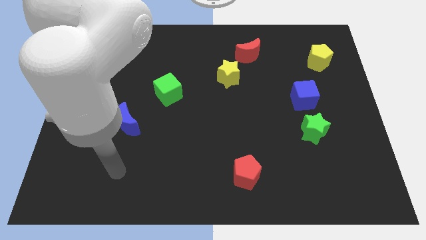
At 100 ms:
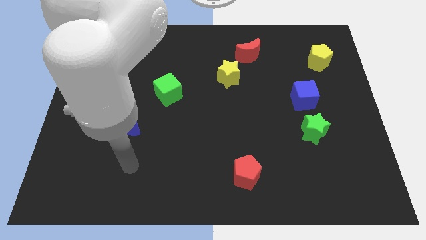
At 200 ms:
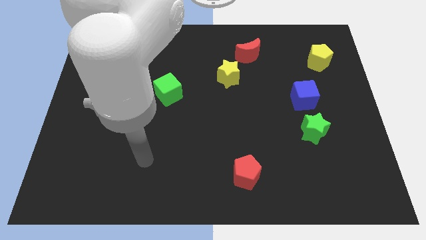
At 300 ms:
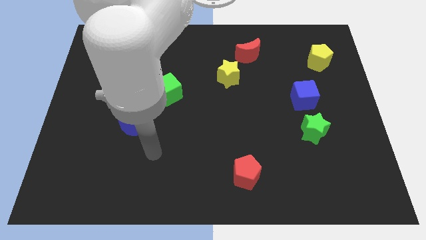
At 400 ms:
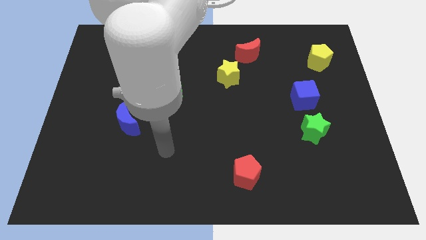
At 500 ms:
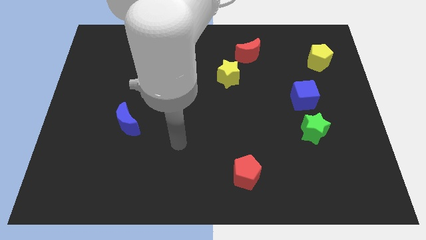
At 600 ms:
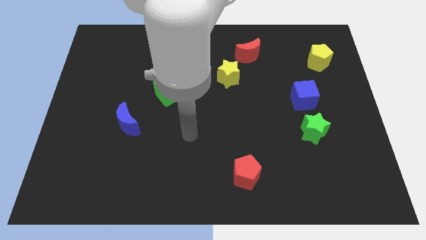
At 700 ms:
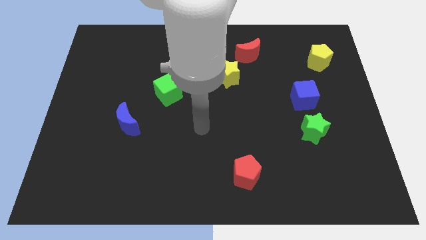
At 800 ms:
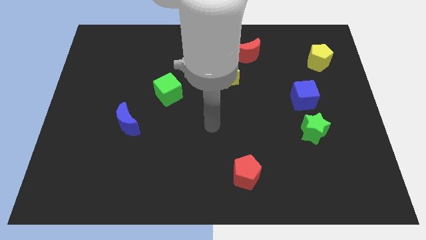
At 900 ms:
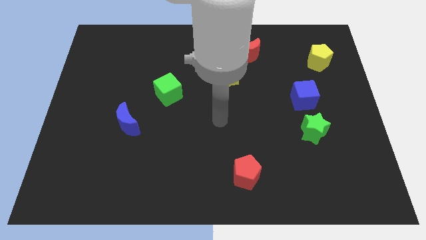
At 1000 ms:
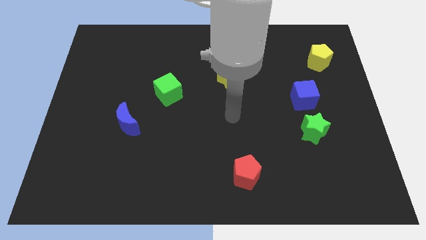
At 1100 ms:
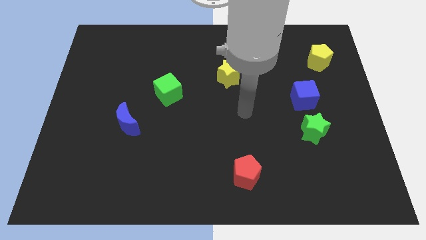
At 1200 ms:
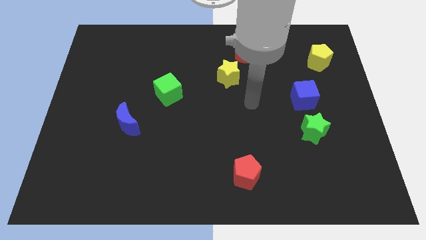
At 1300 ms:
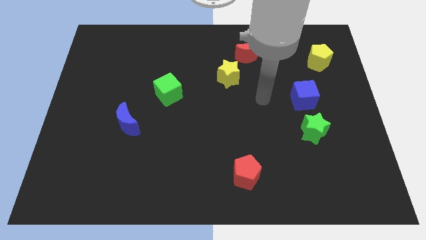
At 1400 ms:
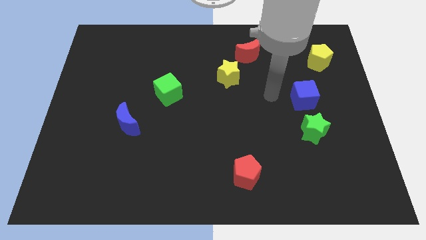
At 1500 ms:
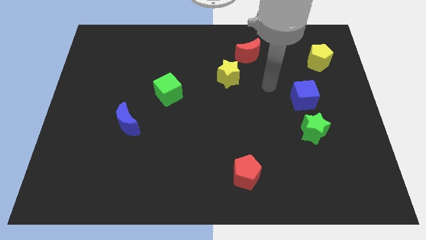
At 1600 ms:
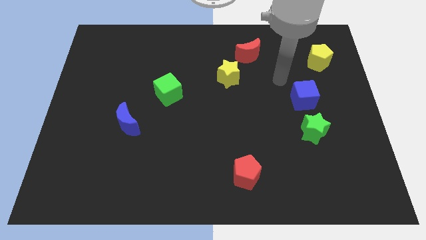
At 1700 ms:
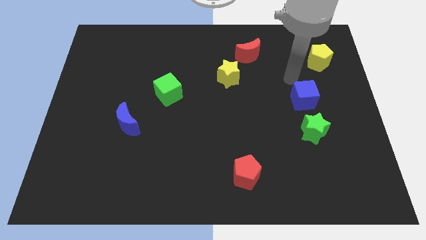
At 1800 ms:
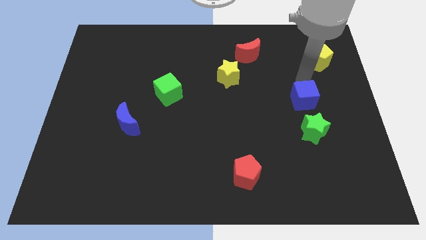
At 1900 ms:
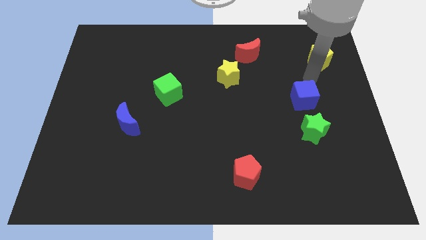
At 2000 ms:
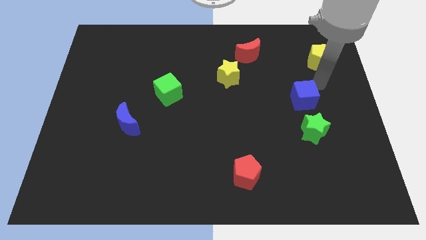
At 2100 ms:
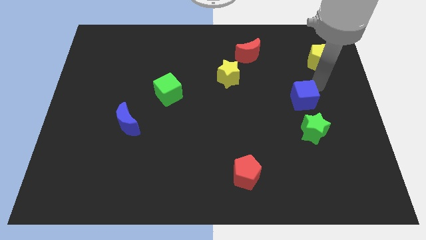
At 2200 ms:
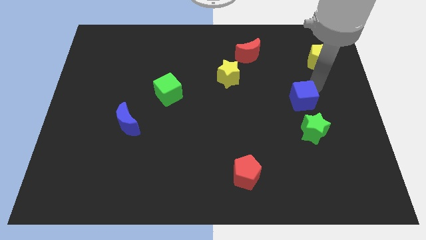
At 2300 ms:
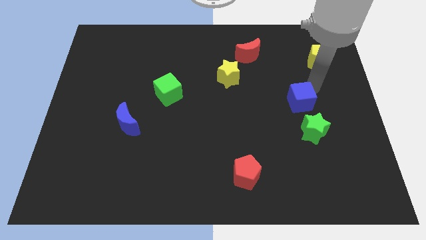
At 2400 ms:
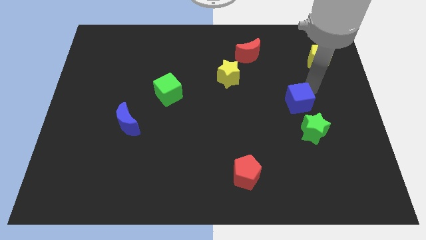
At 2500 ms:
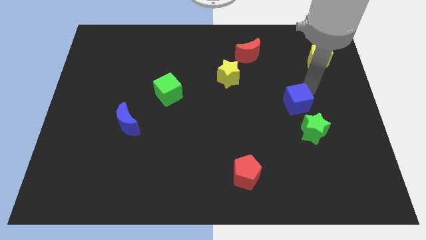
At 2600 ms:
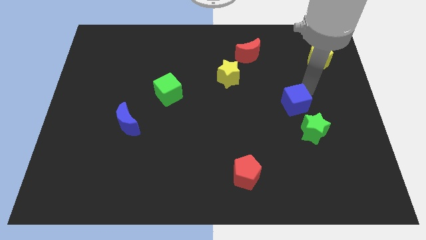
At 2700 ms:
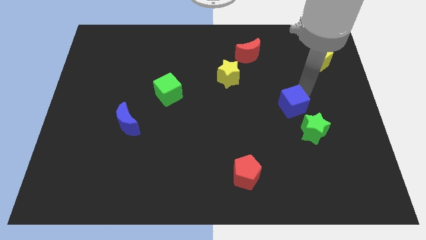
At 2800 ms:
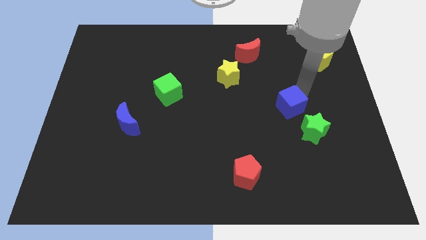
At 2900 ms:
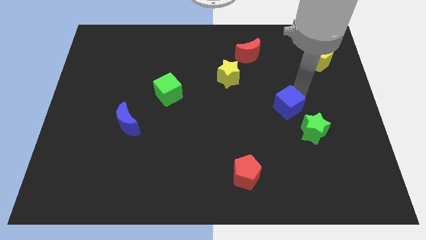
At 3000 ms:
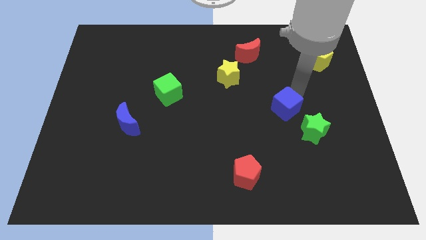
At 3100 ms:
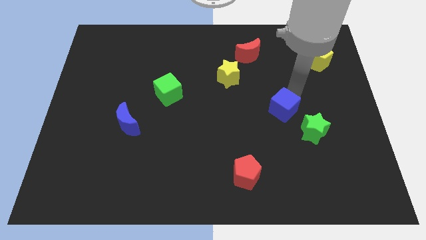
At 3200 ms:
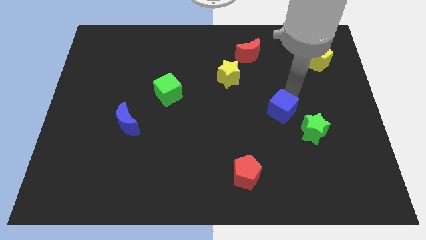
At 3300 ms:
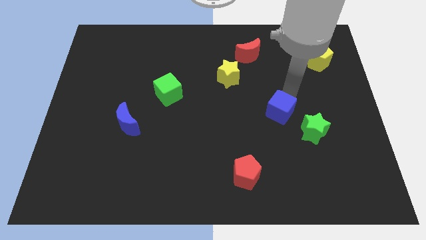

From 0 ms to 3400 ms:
slide the blue cube down and then left slightly

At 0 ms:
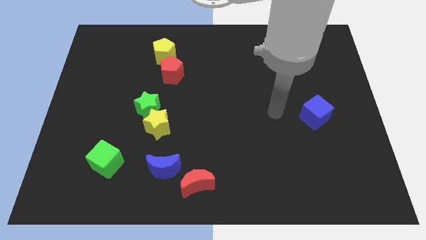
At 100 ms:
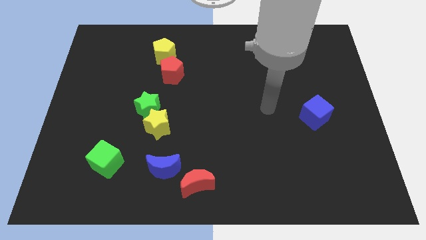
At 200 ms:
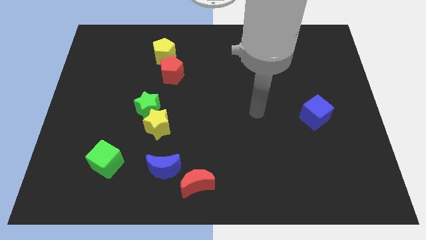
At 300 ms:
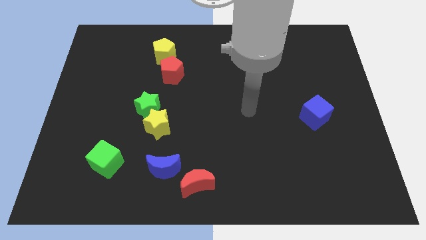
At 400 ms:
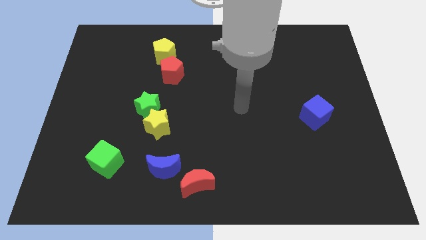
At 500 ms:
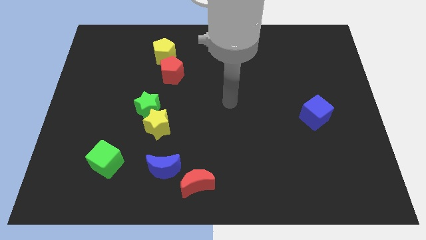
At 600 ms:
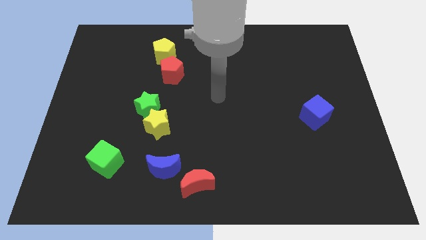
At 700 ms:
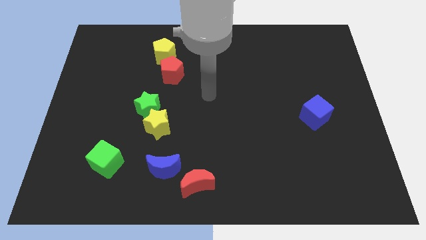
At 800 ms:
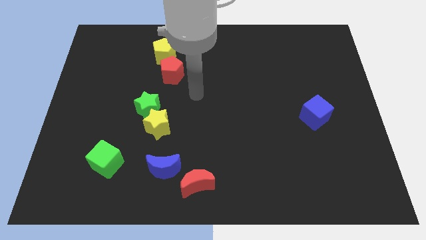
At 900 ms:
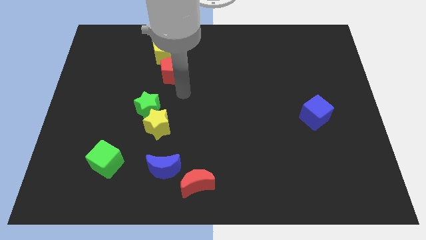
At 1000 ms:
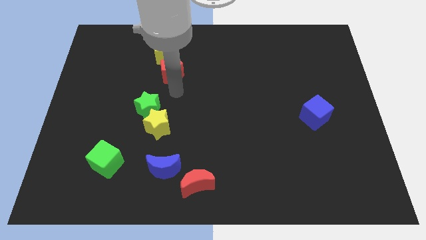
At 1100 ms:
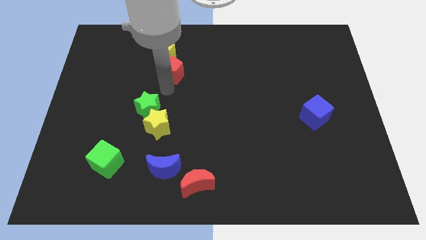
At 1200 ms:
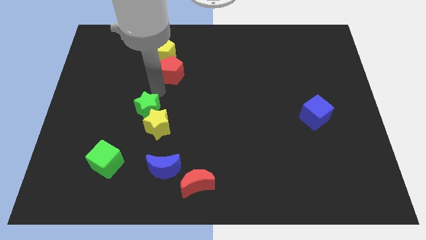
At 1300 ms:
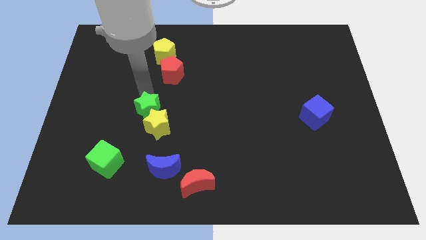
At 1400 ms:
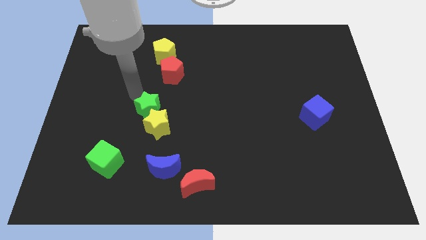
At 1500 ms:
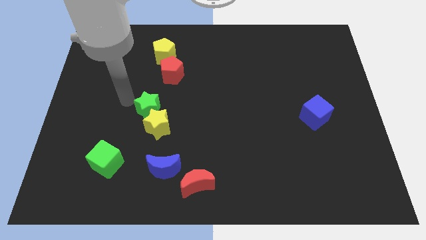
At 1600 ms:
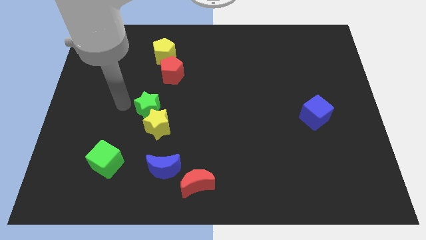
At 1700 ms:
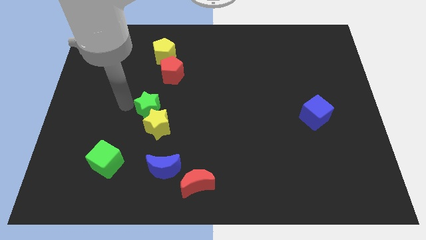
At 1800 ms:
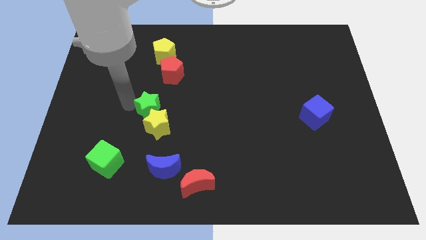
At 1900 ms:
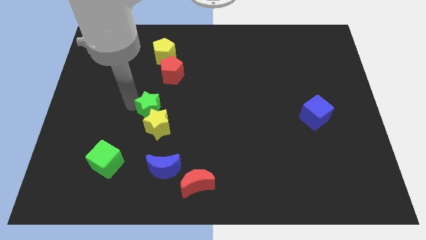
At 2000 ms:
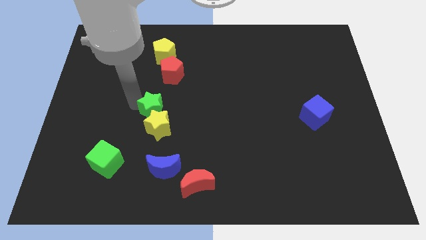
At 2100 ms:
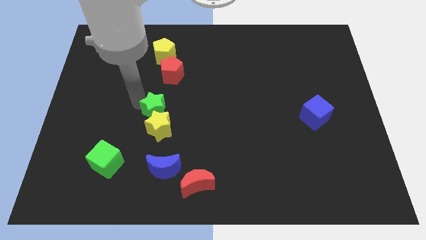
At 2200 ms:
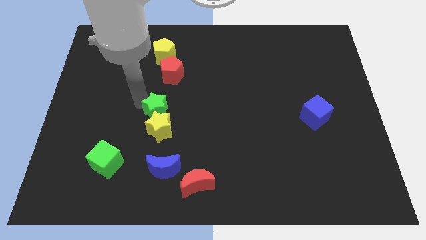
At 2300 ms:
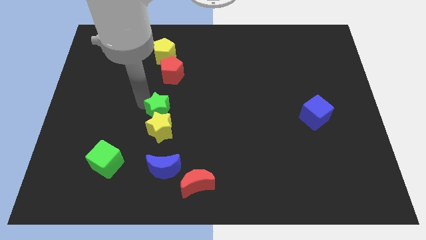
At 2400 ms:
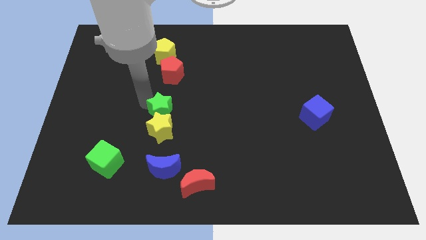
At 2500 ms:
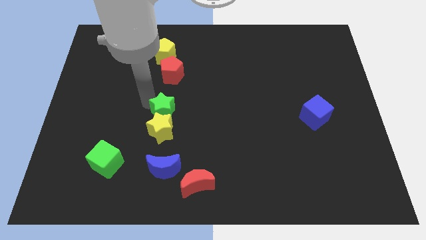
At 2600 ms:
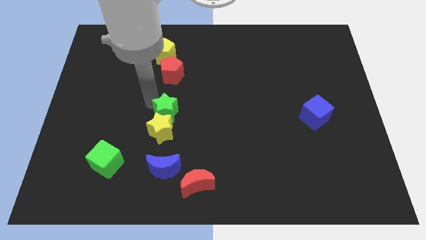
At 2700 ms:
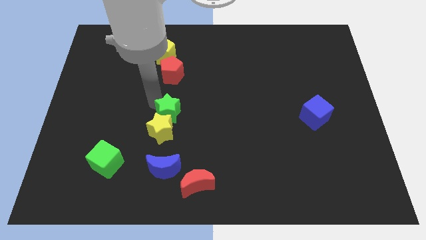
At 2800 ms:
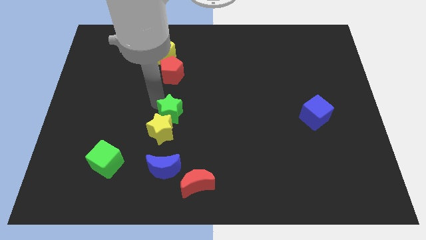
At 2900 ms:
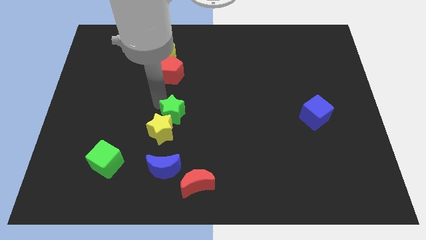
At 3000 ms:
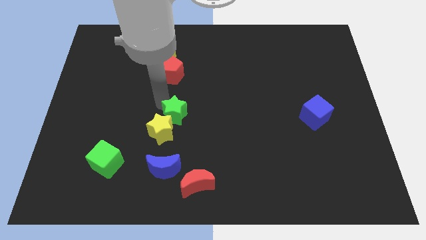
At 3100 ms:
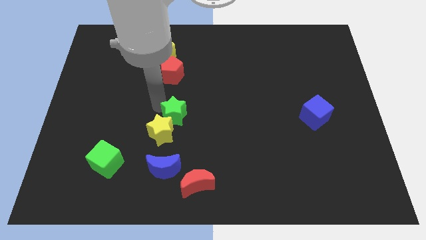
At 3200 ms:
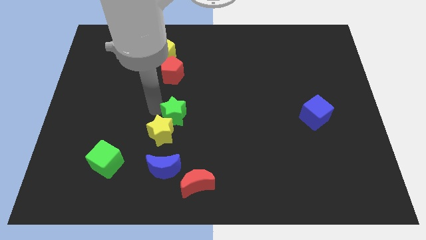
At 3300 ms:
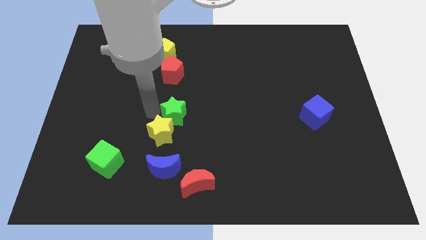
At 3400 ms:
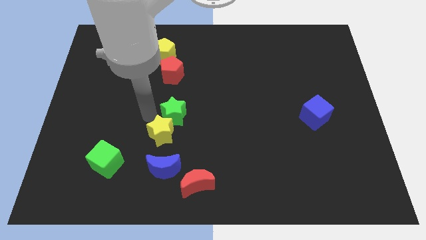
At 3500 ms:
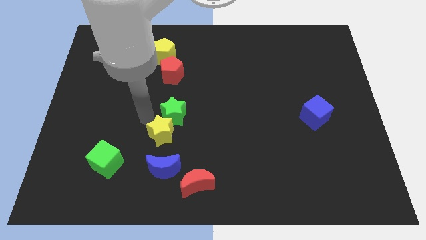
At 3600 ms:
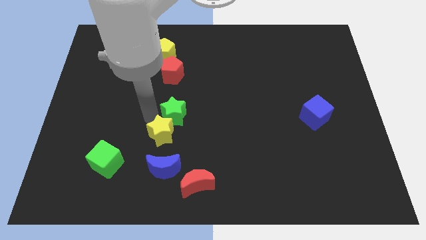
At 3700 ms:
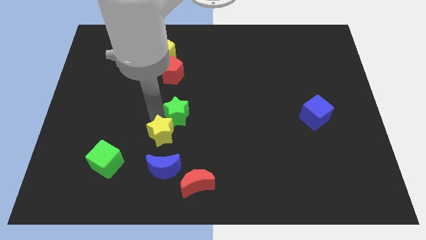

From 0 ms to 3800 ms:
slightly slide the green star right

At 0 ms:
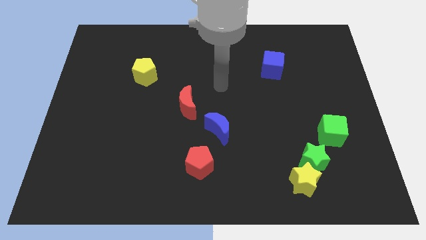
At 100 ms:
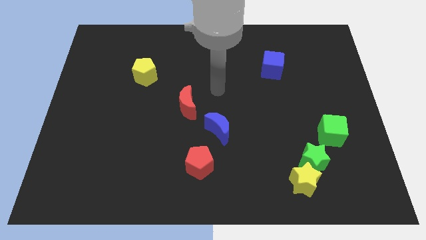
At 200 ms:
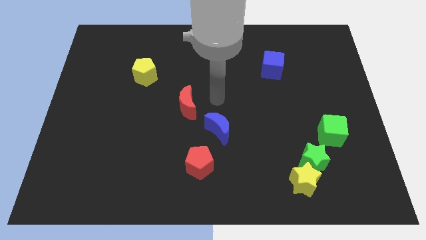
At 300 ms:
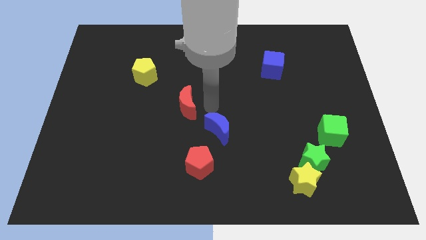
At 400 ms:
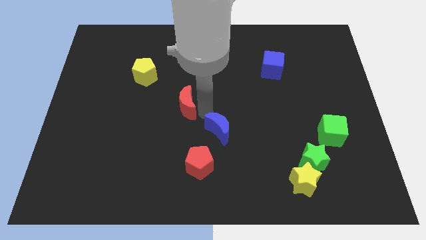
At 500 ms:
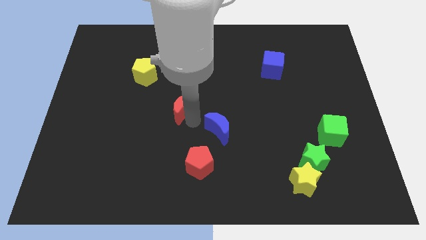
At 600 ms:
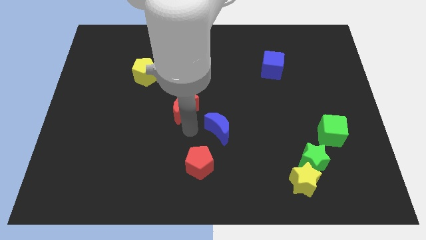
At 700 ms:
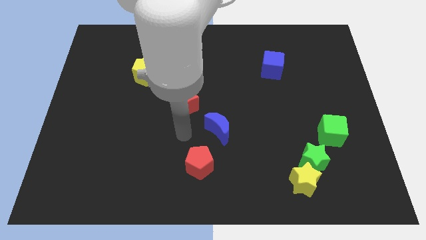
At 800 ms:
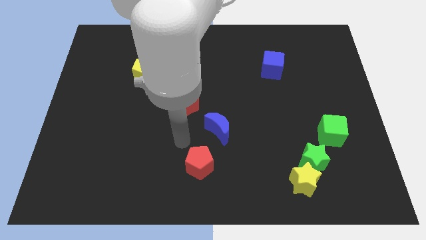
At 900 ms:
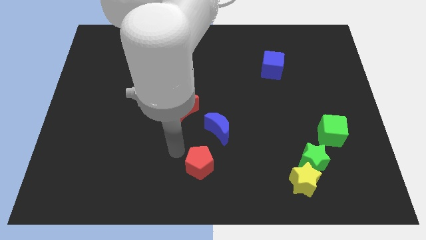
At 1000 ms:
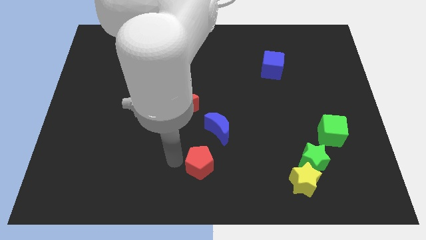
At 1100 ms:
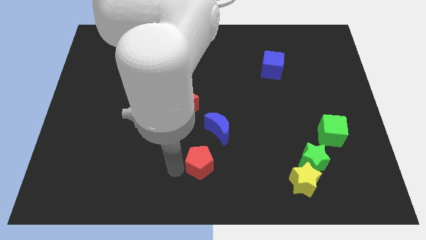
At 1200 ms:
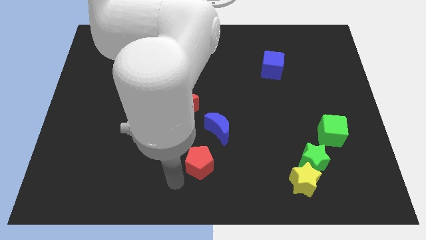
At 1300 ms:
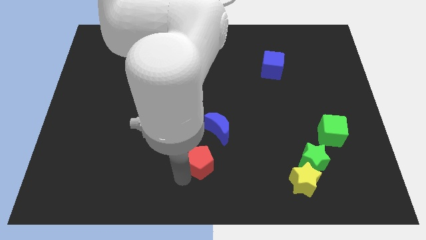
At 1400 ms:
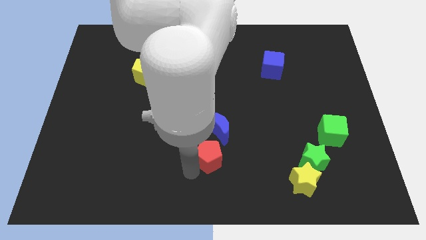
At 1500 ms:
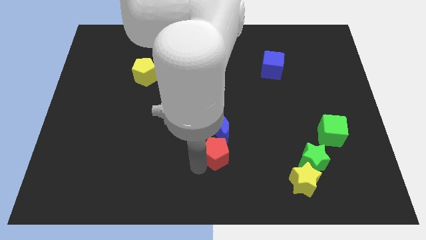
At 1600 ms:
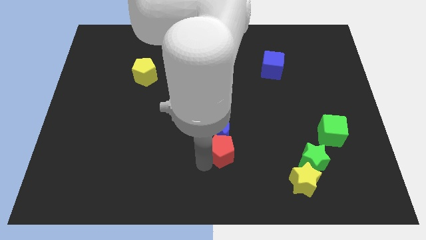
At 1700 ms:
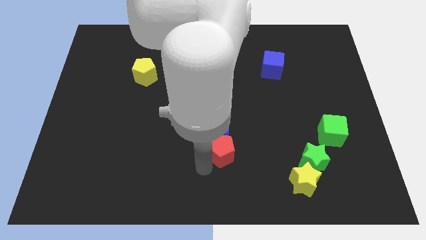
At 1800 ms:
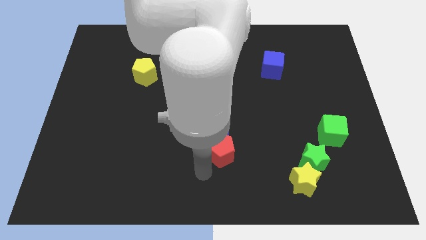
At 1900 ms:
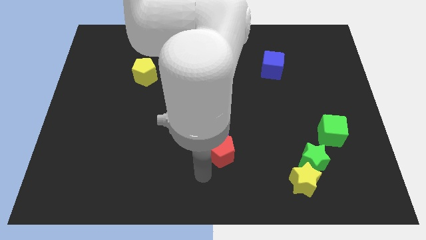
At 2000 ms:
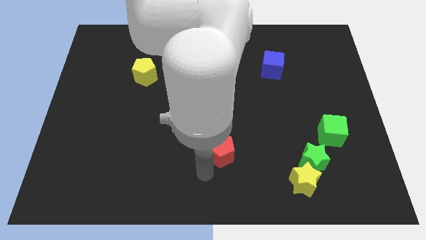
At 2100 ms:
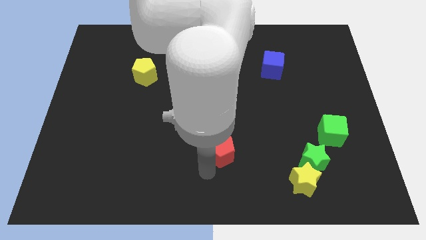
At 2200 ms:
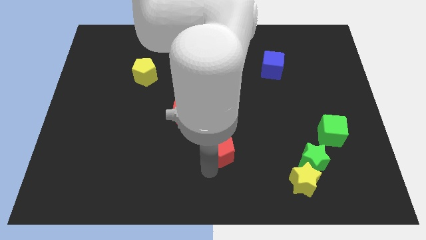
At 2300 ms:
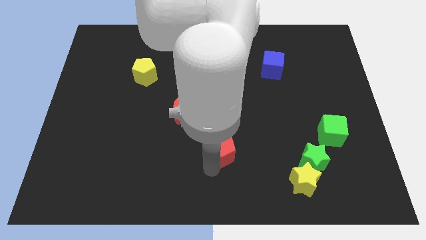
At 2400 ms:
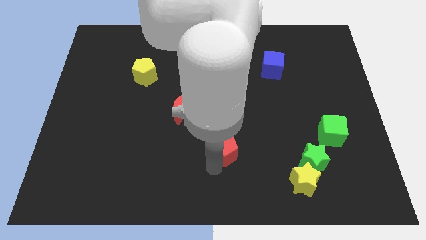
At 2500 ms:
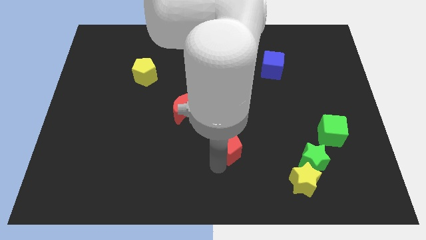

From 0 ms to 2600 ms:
push the red pentagon somewhat up and to the right diagonally
